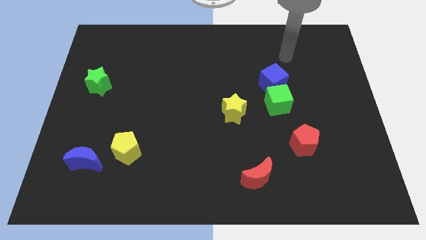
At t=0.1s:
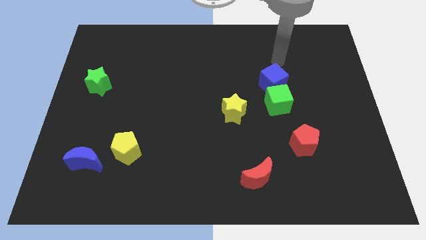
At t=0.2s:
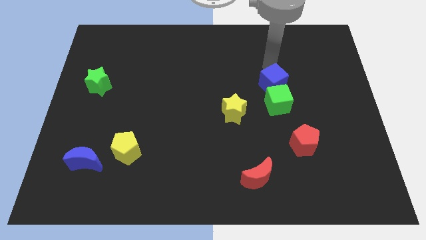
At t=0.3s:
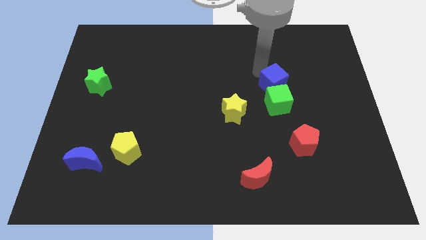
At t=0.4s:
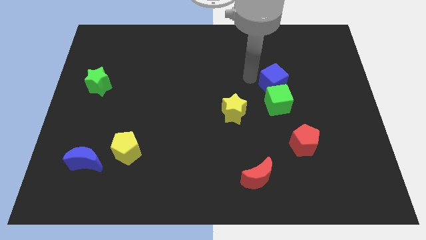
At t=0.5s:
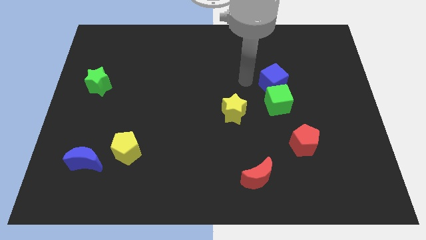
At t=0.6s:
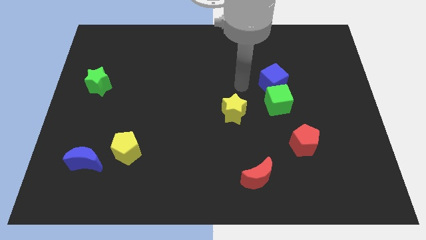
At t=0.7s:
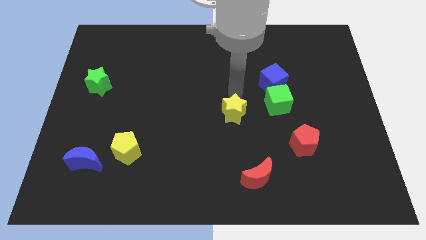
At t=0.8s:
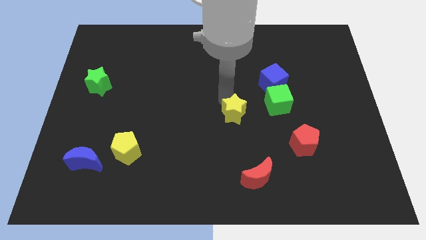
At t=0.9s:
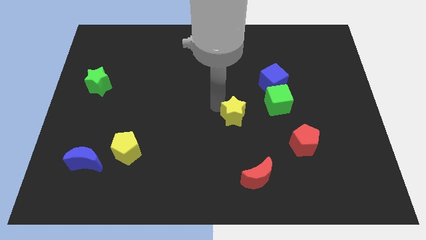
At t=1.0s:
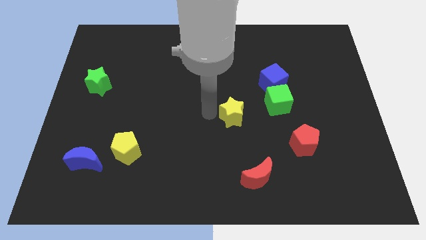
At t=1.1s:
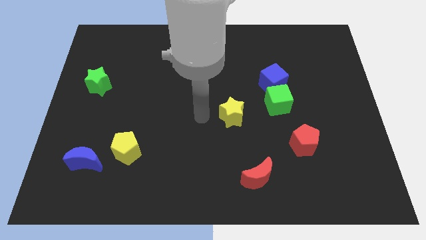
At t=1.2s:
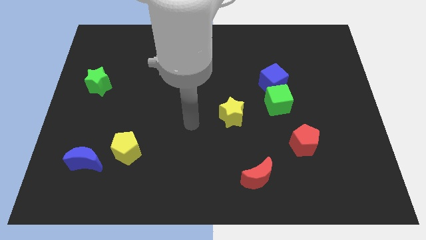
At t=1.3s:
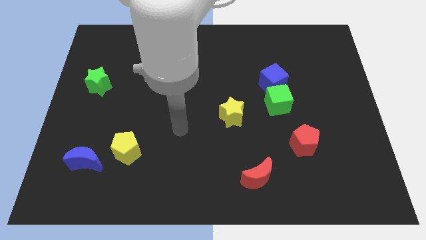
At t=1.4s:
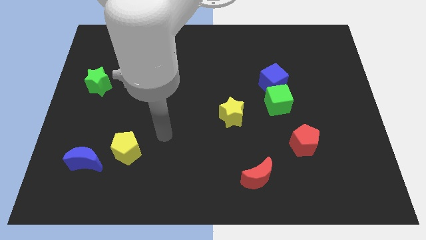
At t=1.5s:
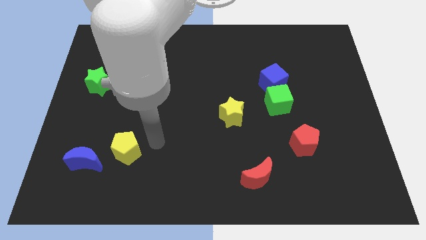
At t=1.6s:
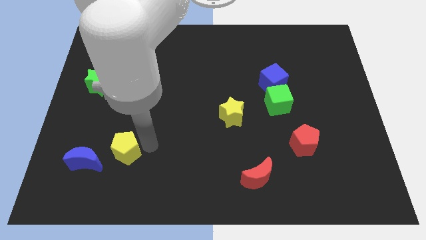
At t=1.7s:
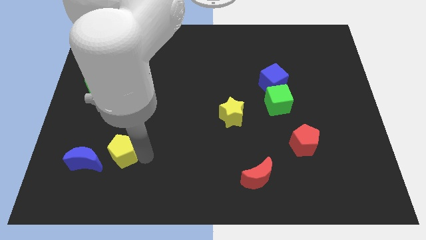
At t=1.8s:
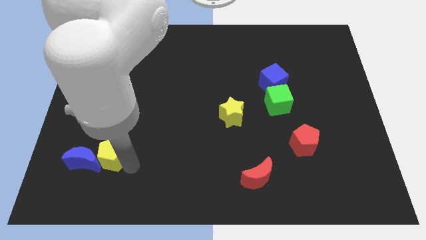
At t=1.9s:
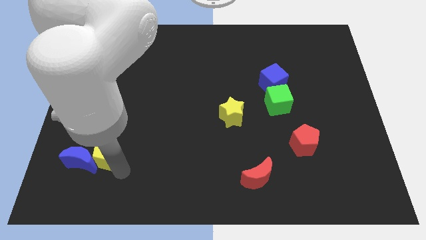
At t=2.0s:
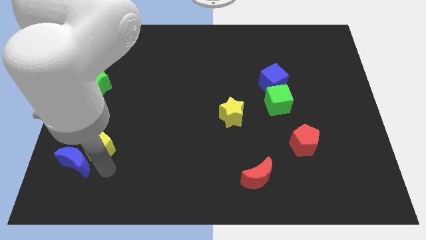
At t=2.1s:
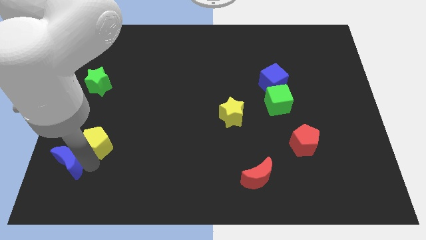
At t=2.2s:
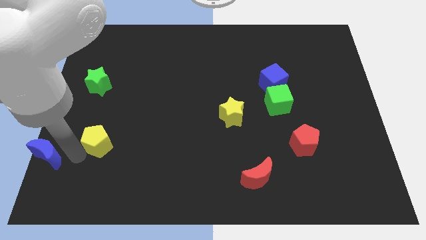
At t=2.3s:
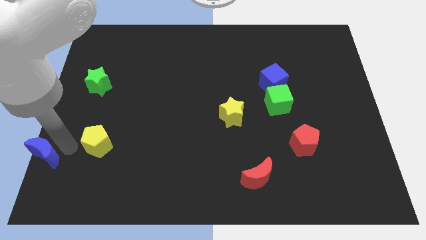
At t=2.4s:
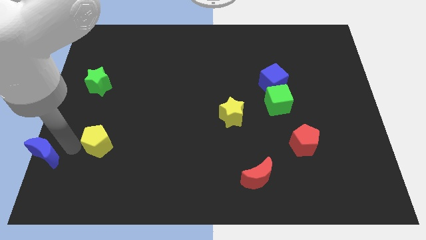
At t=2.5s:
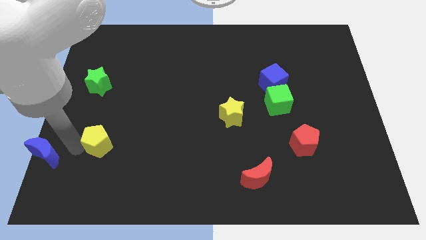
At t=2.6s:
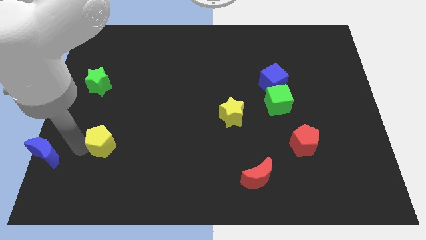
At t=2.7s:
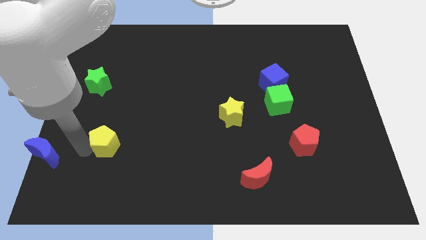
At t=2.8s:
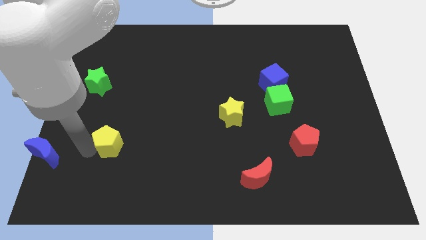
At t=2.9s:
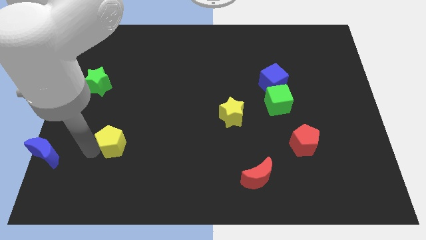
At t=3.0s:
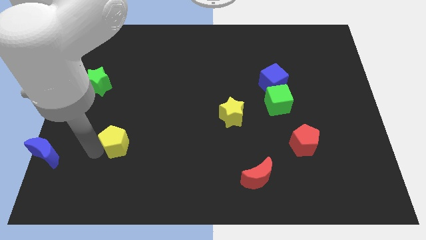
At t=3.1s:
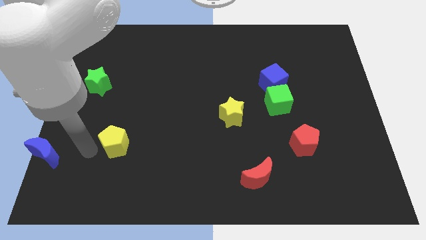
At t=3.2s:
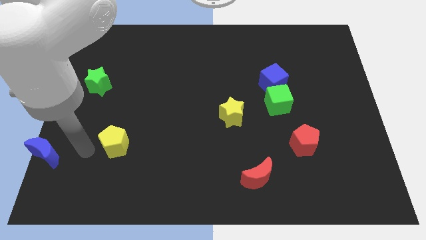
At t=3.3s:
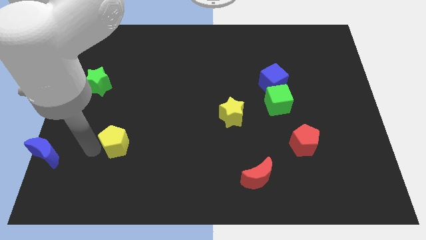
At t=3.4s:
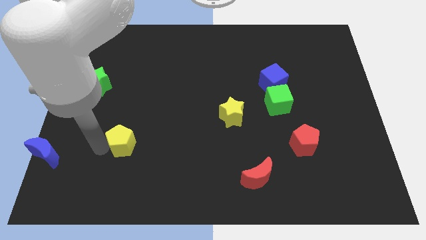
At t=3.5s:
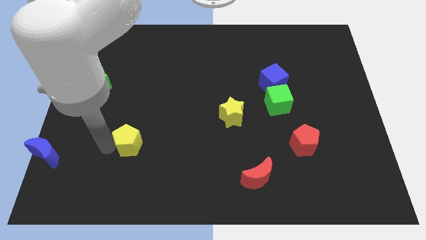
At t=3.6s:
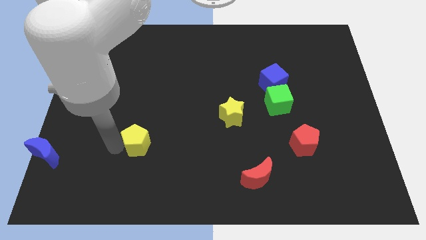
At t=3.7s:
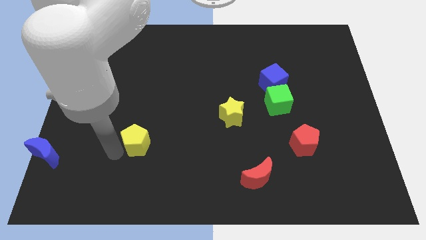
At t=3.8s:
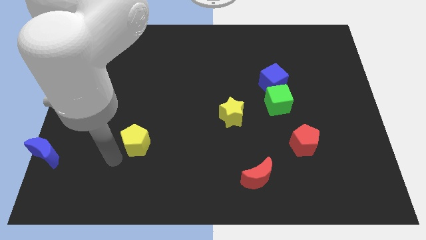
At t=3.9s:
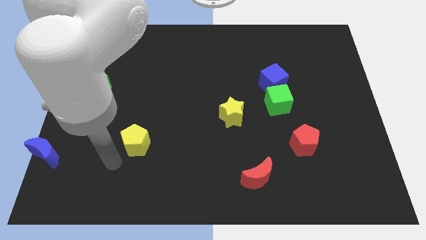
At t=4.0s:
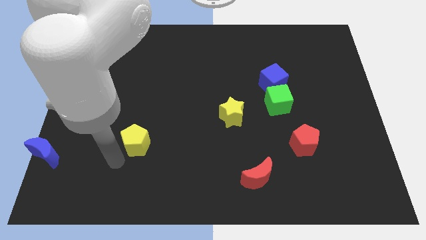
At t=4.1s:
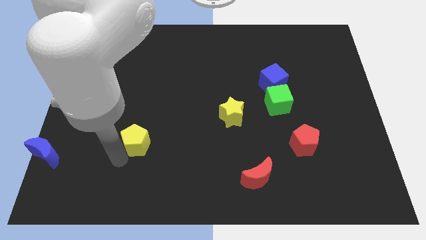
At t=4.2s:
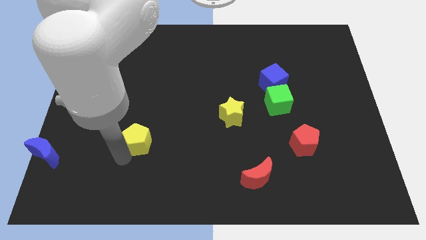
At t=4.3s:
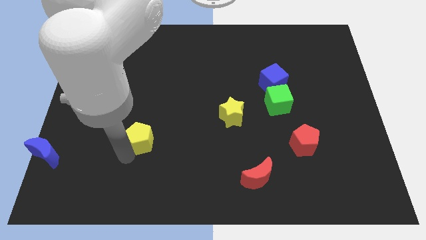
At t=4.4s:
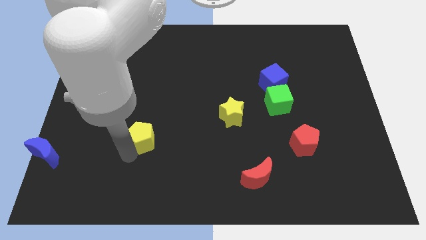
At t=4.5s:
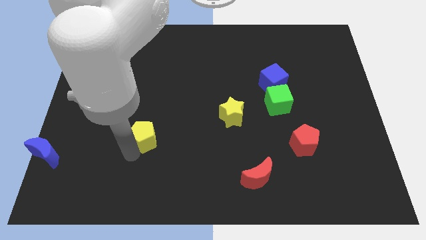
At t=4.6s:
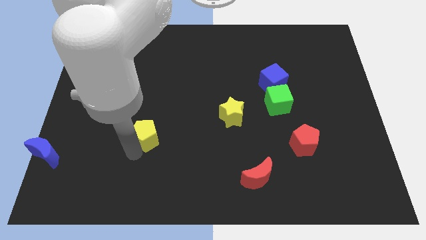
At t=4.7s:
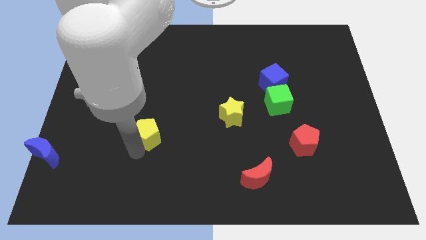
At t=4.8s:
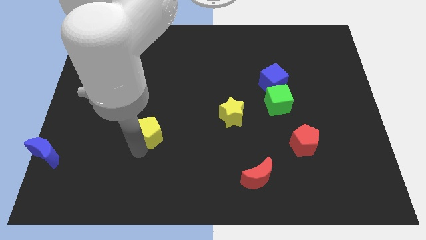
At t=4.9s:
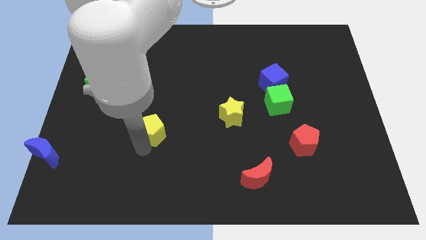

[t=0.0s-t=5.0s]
slightly slide the yellow pentagon upwards and right

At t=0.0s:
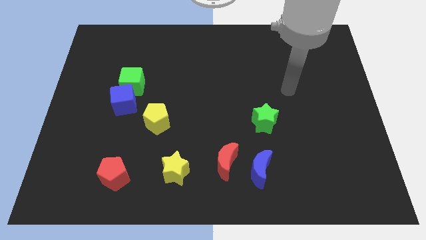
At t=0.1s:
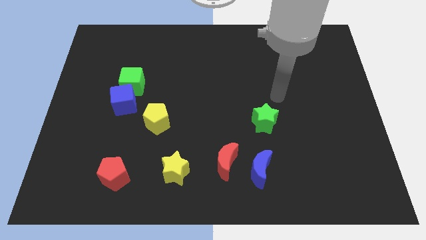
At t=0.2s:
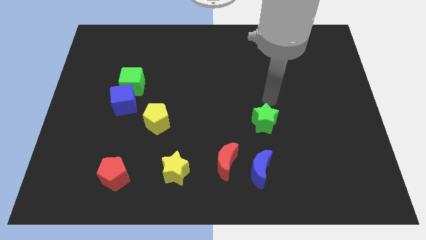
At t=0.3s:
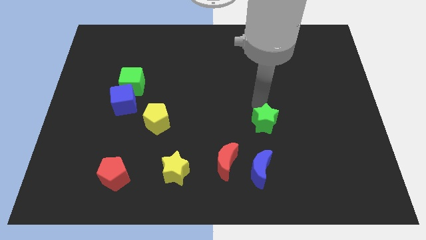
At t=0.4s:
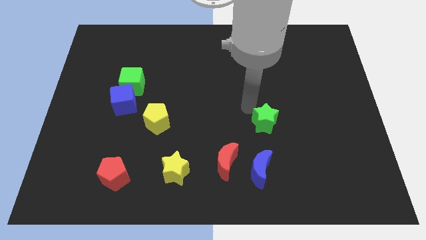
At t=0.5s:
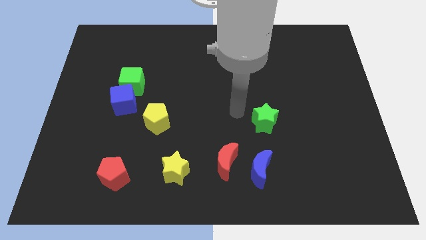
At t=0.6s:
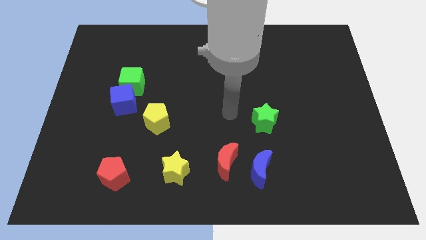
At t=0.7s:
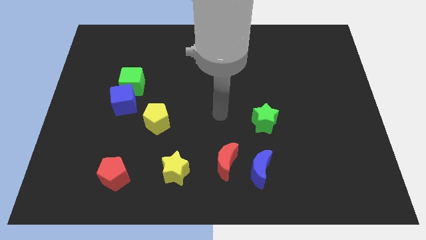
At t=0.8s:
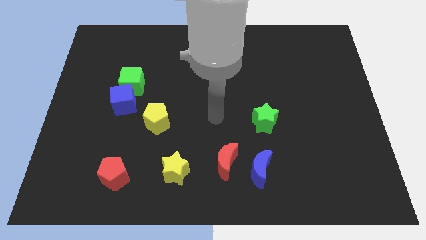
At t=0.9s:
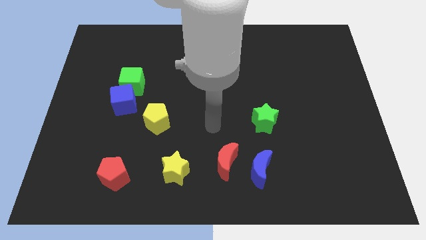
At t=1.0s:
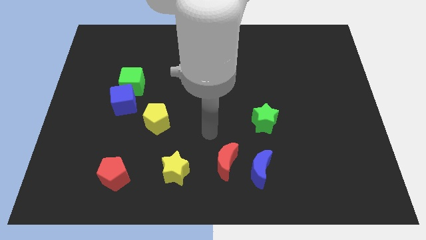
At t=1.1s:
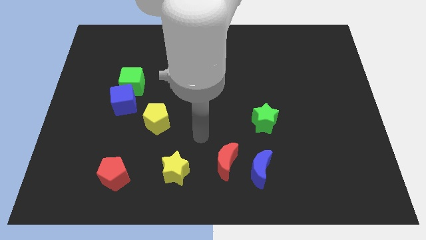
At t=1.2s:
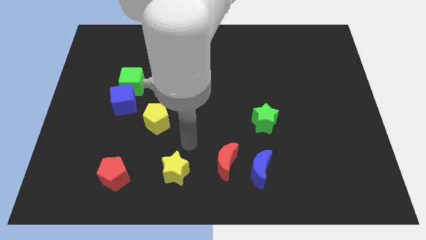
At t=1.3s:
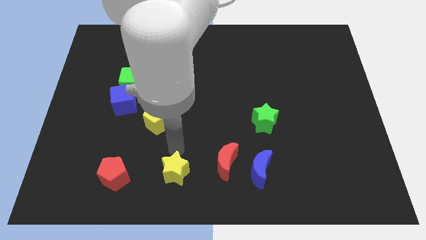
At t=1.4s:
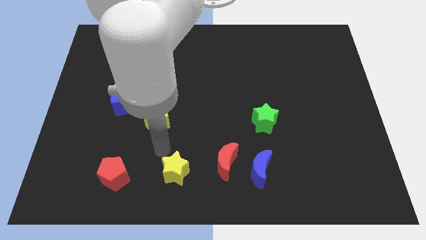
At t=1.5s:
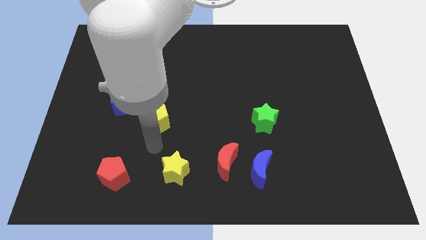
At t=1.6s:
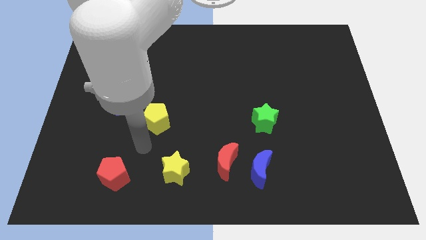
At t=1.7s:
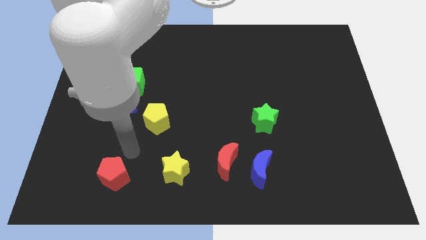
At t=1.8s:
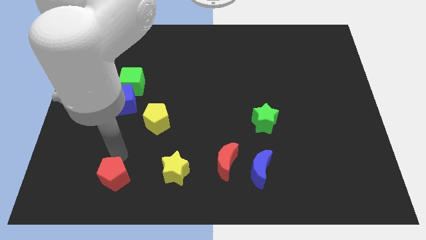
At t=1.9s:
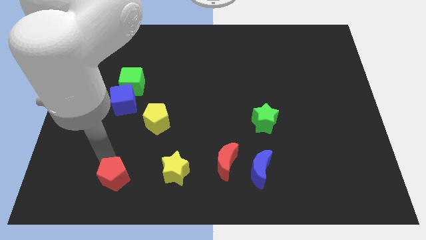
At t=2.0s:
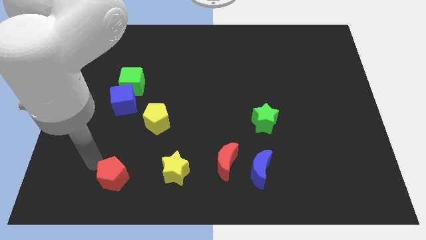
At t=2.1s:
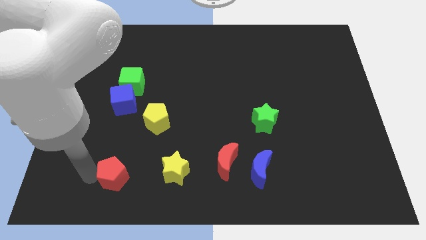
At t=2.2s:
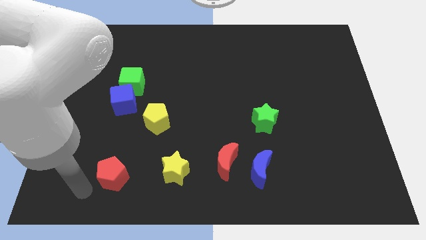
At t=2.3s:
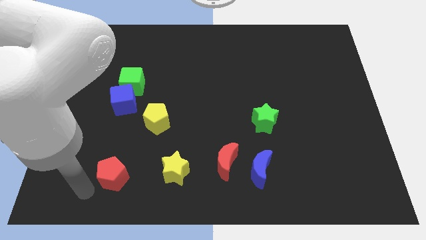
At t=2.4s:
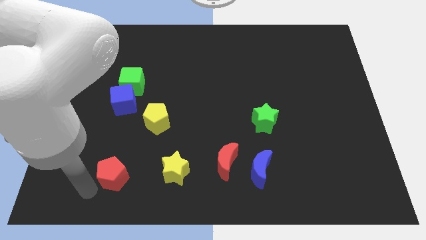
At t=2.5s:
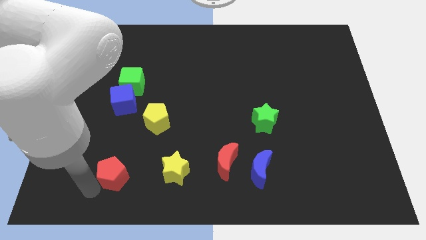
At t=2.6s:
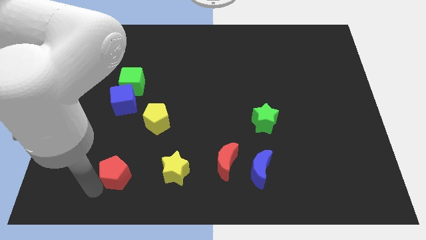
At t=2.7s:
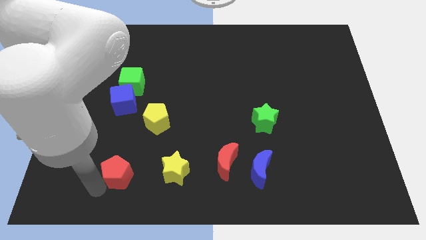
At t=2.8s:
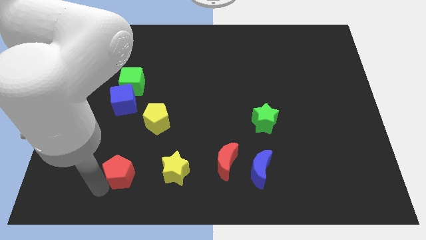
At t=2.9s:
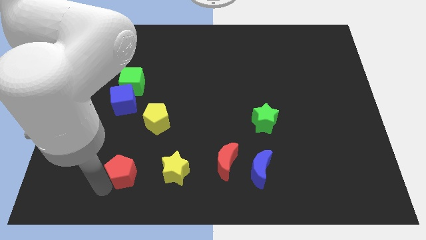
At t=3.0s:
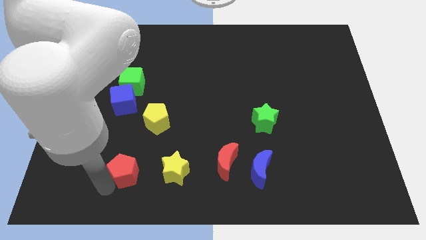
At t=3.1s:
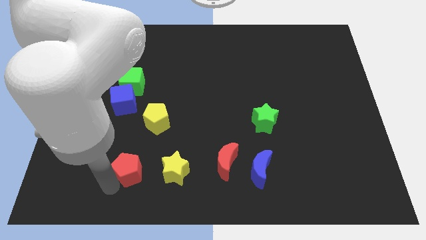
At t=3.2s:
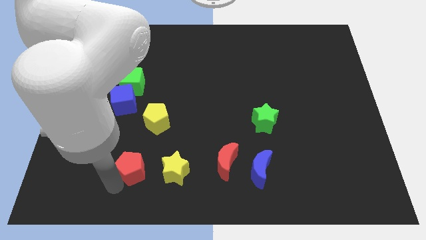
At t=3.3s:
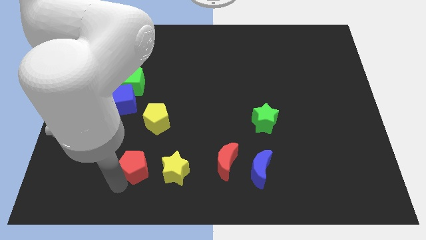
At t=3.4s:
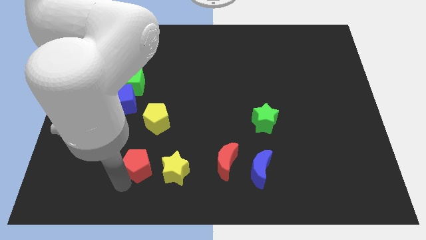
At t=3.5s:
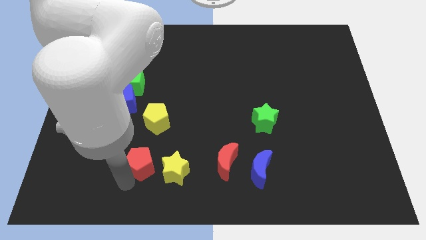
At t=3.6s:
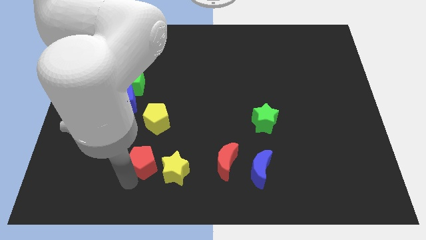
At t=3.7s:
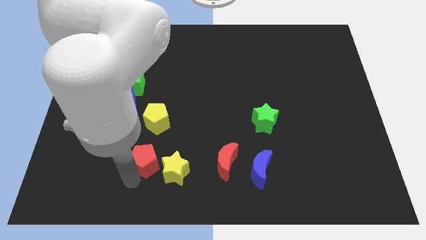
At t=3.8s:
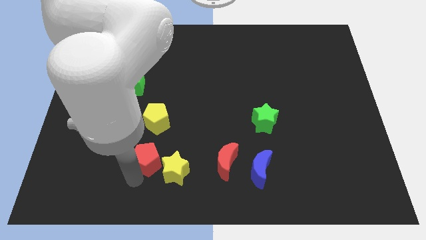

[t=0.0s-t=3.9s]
slightly move the red pentagon up and to the right diagonally
